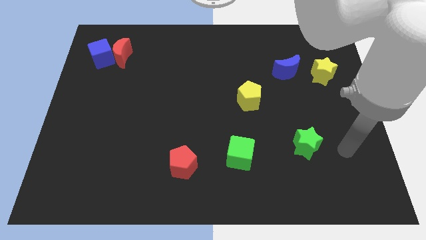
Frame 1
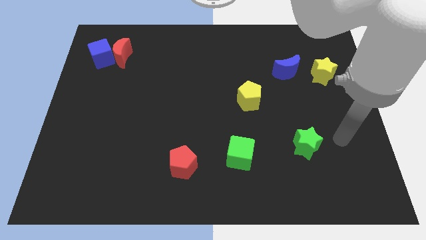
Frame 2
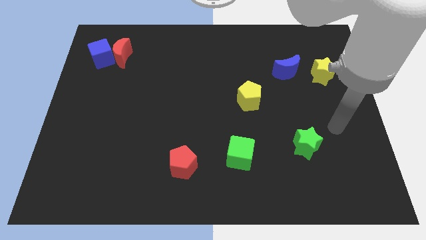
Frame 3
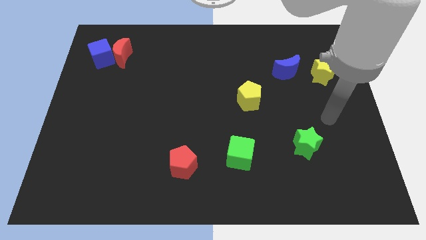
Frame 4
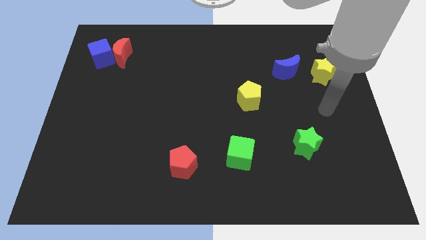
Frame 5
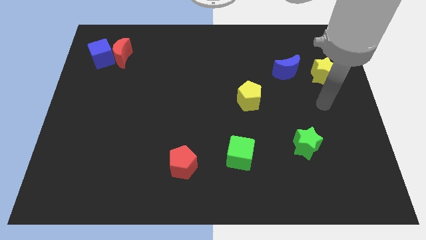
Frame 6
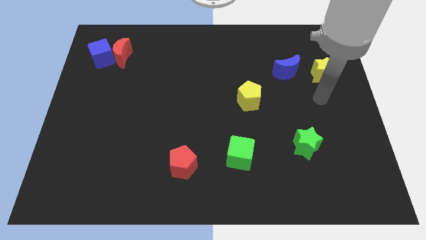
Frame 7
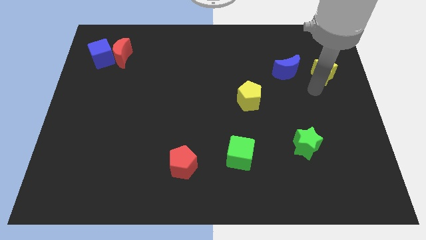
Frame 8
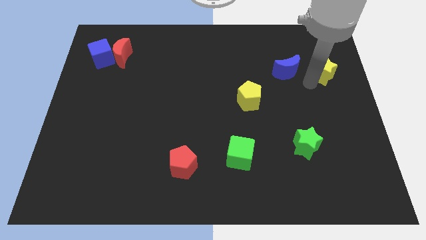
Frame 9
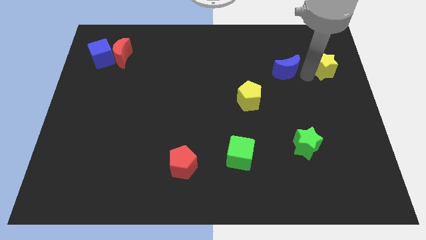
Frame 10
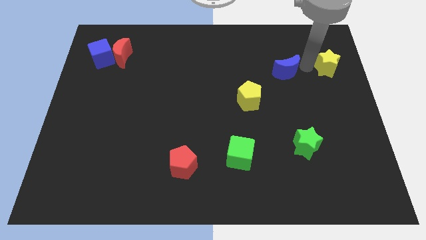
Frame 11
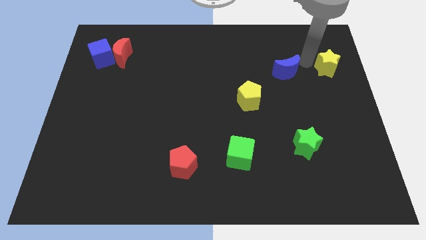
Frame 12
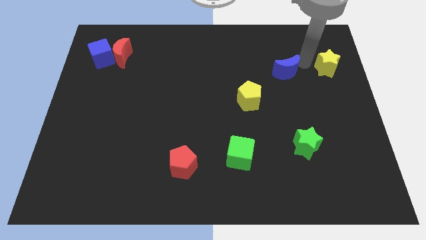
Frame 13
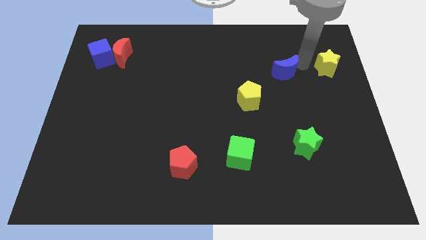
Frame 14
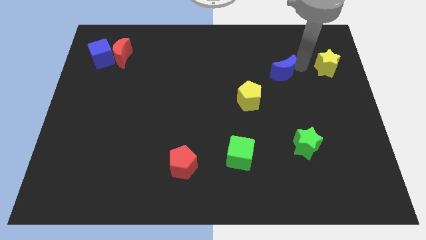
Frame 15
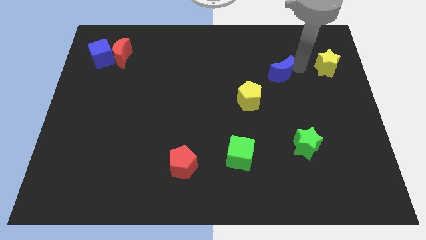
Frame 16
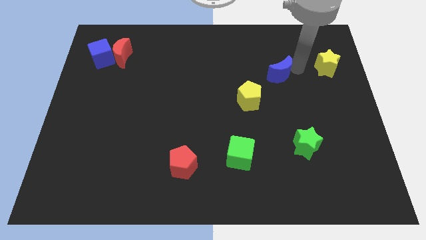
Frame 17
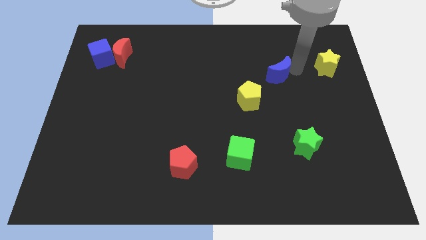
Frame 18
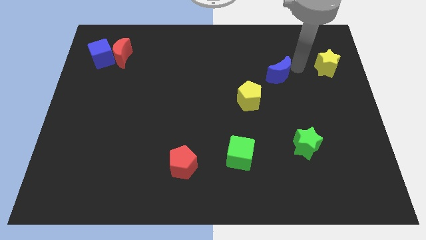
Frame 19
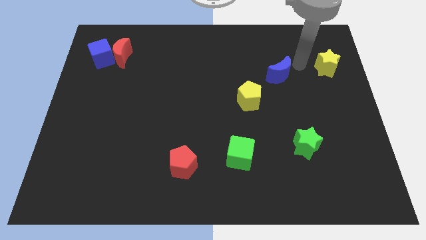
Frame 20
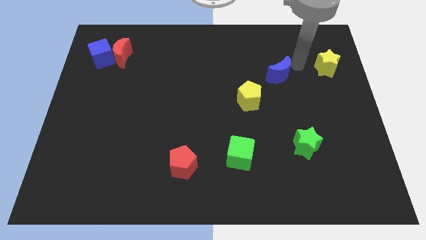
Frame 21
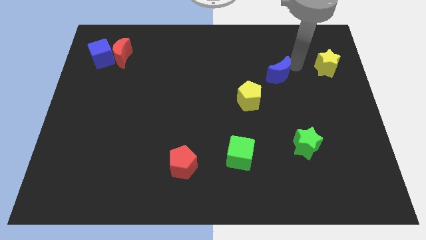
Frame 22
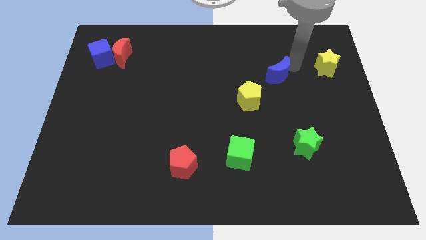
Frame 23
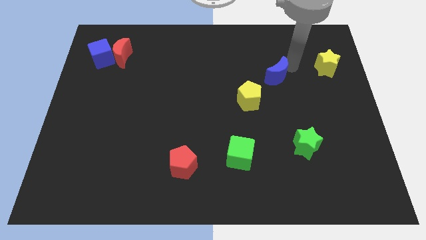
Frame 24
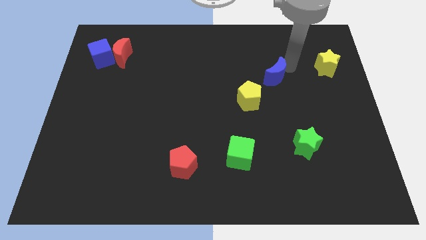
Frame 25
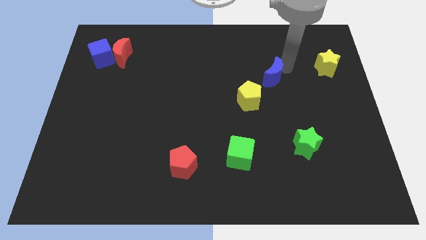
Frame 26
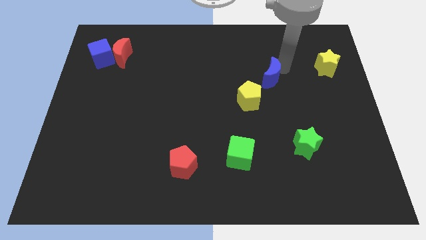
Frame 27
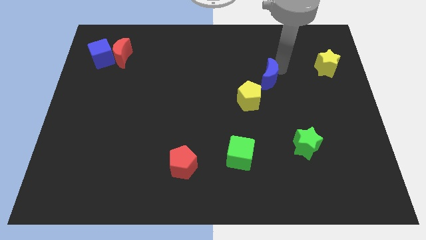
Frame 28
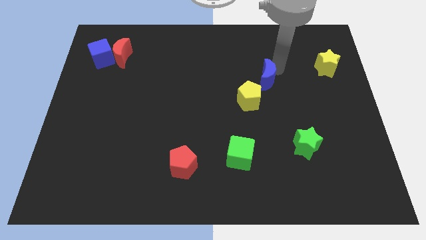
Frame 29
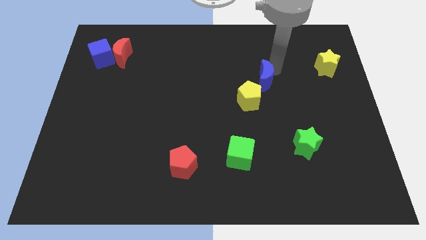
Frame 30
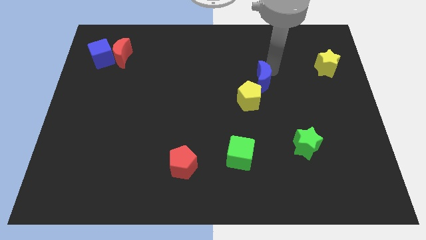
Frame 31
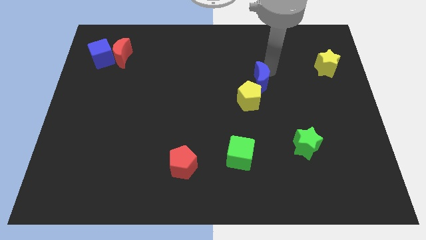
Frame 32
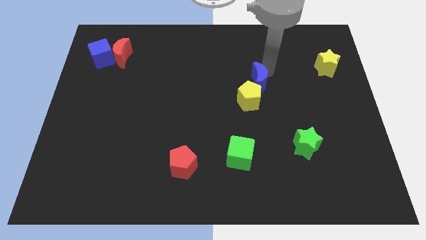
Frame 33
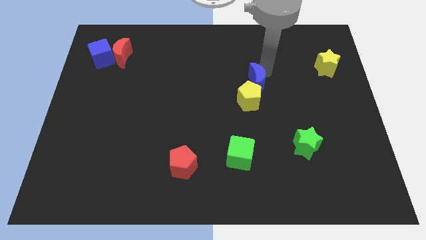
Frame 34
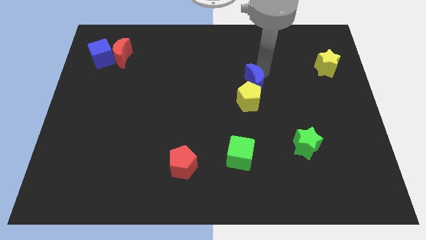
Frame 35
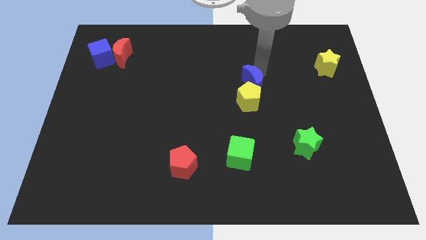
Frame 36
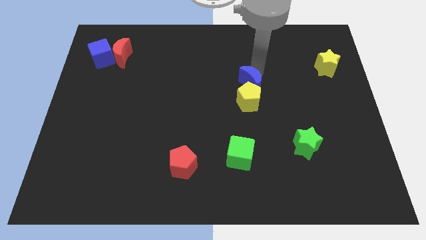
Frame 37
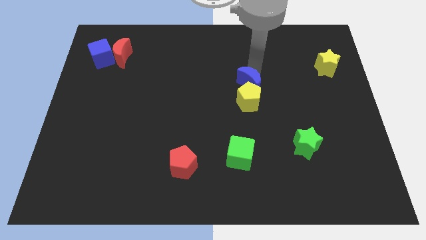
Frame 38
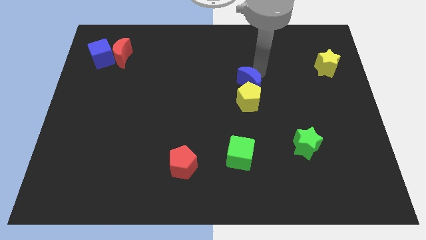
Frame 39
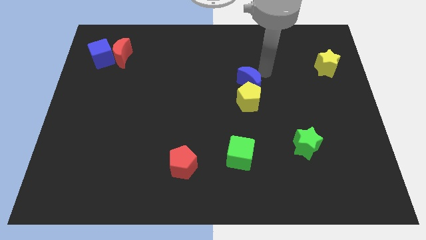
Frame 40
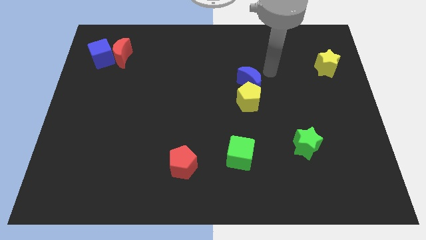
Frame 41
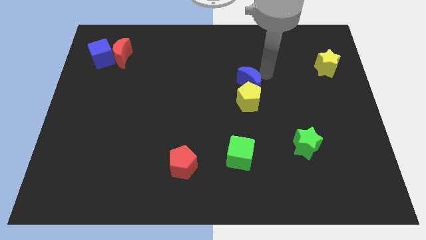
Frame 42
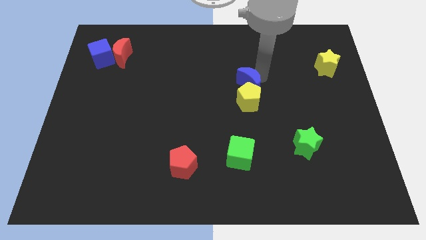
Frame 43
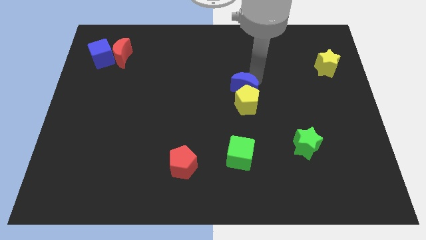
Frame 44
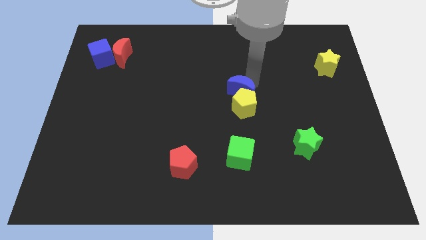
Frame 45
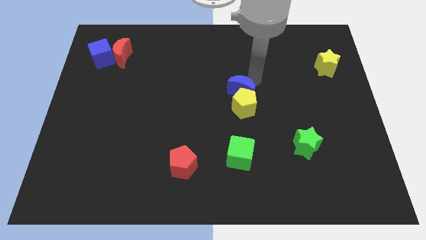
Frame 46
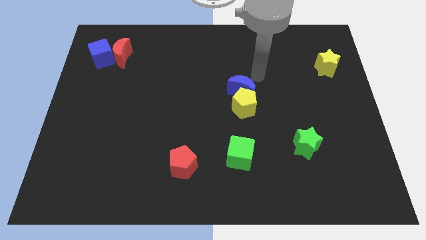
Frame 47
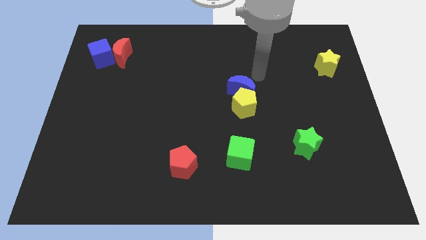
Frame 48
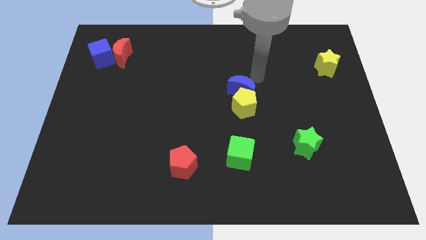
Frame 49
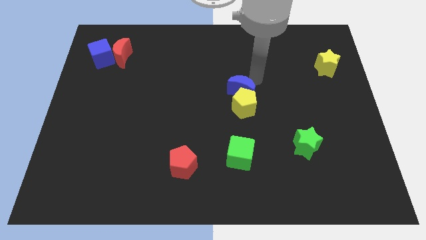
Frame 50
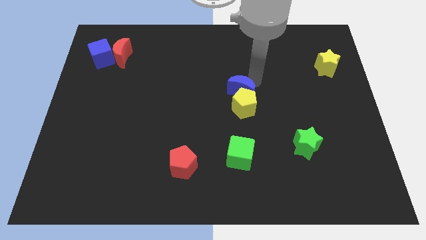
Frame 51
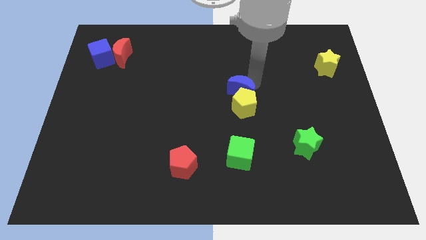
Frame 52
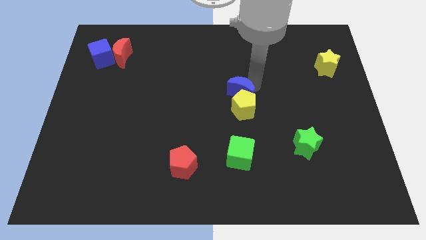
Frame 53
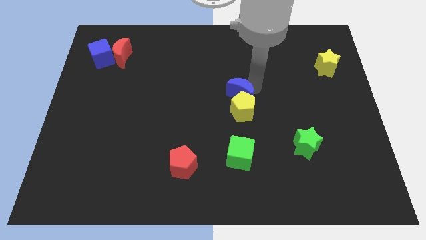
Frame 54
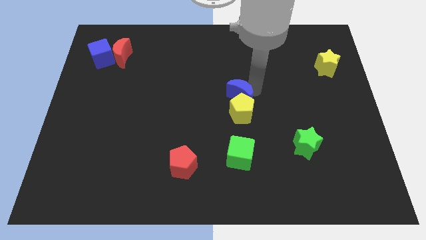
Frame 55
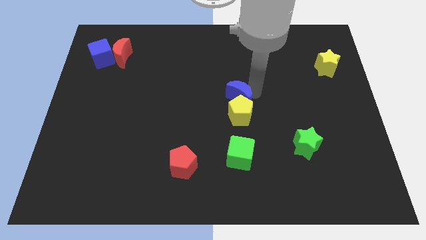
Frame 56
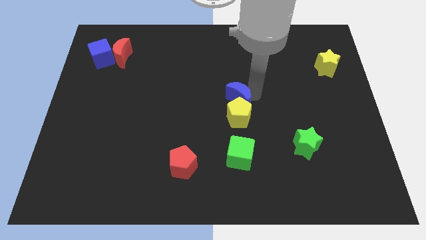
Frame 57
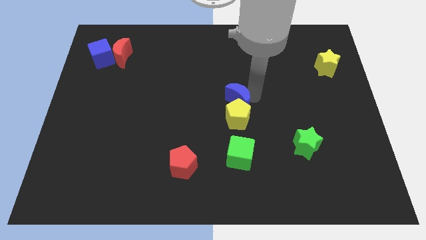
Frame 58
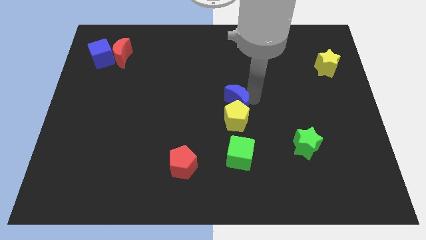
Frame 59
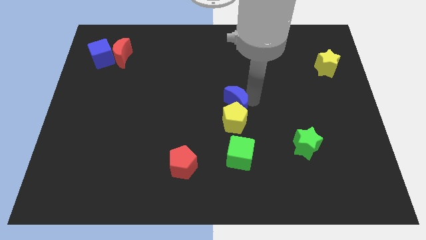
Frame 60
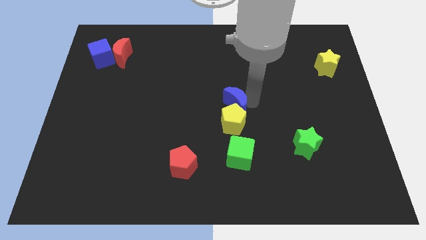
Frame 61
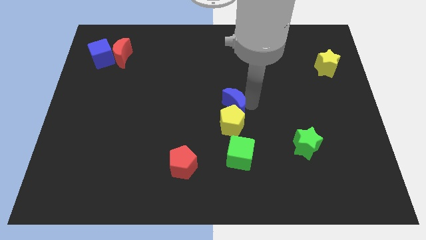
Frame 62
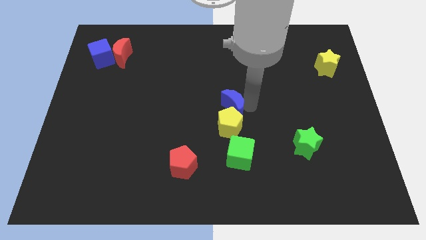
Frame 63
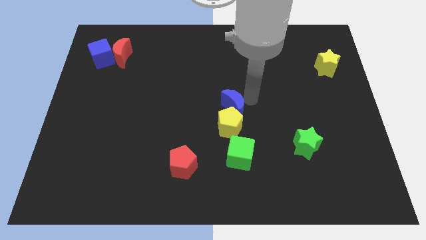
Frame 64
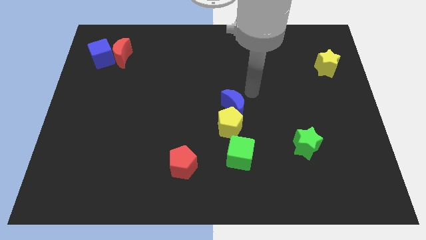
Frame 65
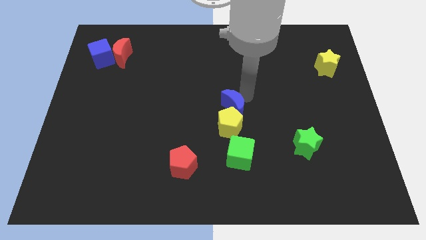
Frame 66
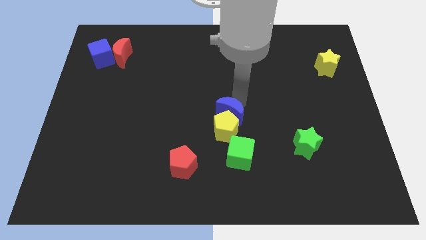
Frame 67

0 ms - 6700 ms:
slide the blue moon downwards and to the left diagonally

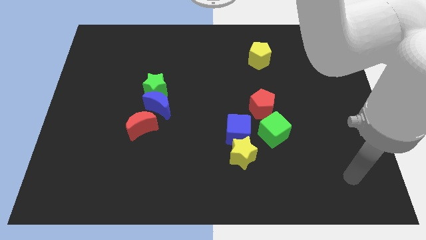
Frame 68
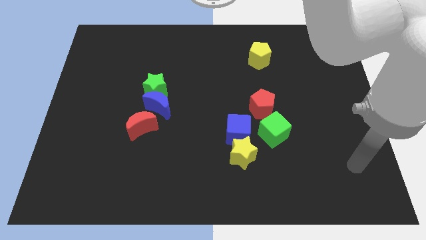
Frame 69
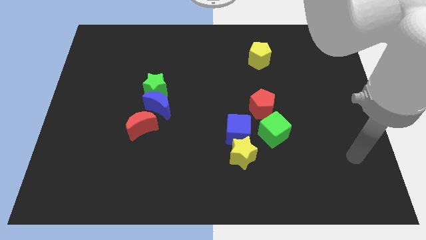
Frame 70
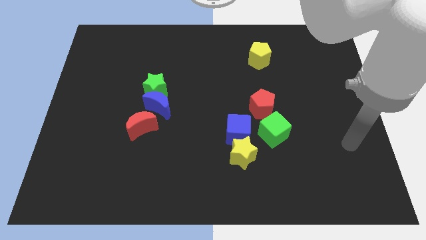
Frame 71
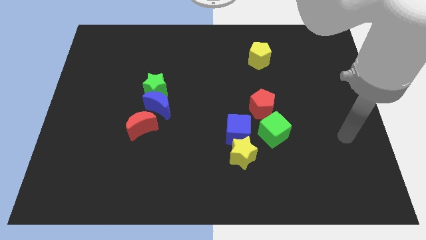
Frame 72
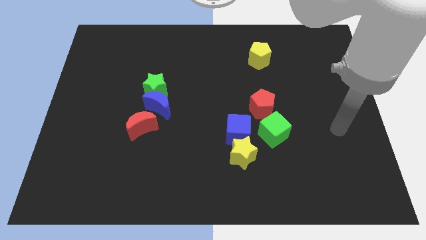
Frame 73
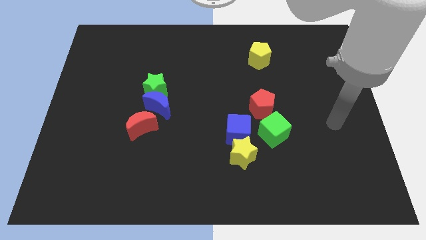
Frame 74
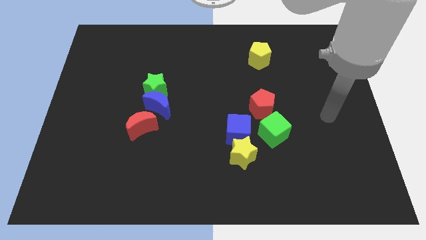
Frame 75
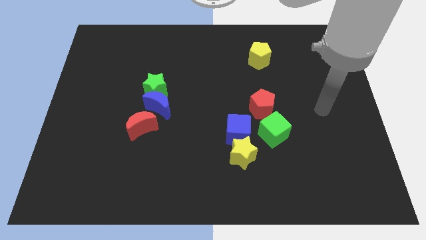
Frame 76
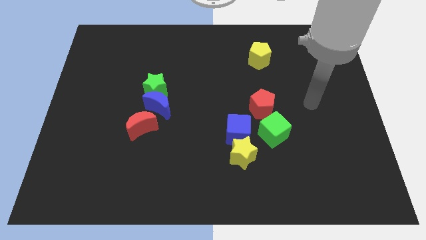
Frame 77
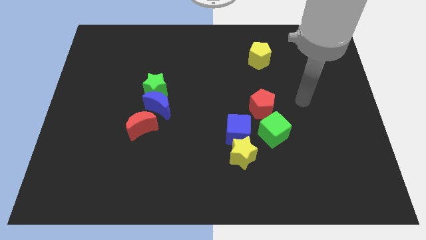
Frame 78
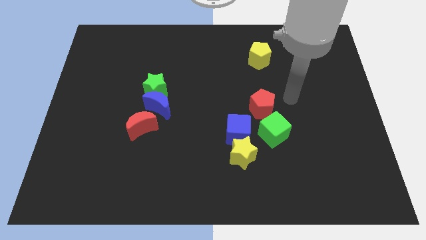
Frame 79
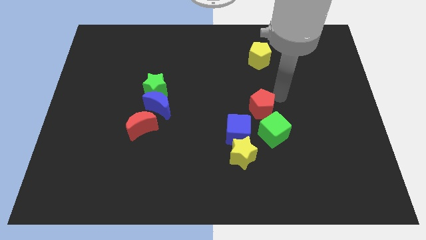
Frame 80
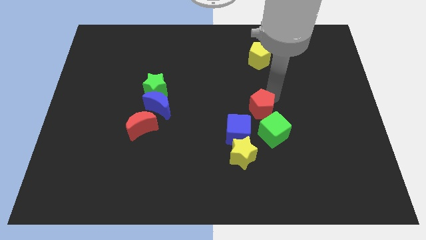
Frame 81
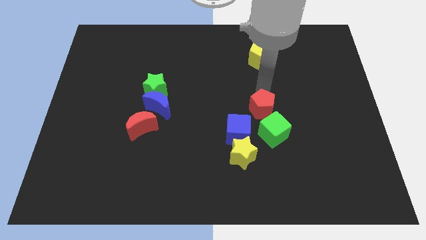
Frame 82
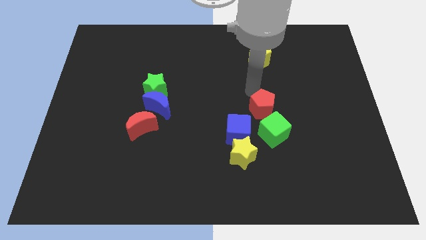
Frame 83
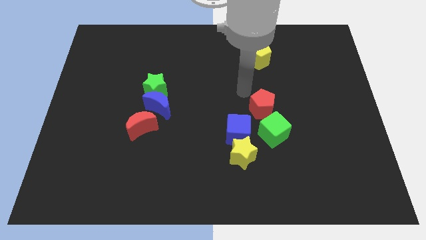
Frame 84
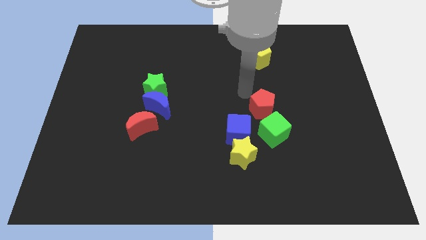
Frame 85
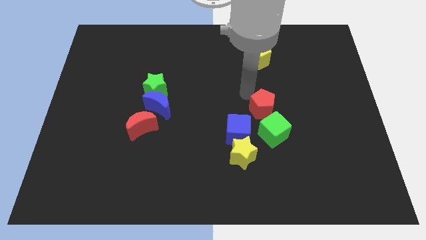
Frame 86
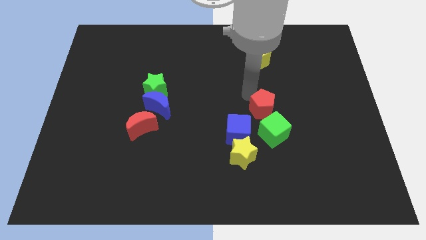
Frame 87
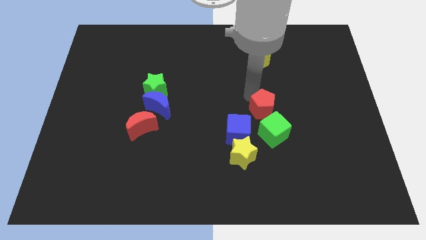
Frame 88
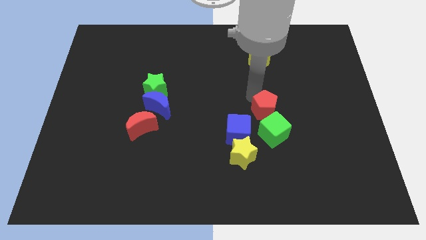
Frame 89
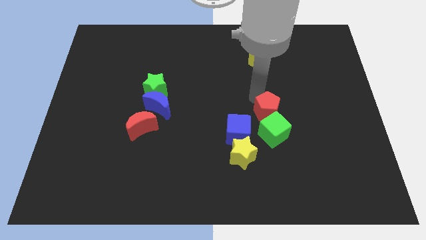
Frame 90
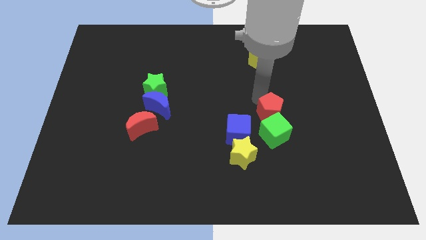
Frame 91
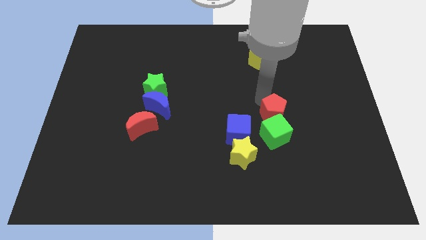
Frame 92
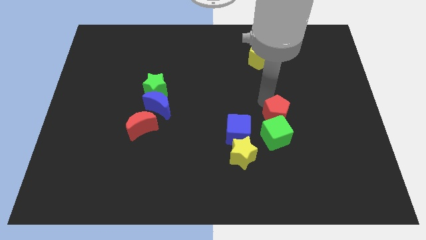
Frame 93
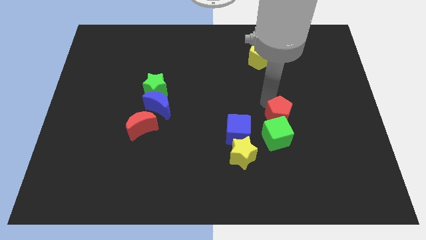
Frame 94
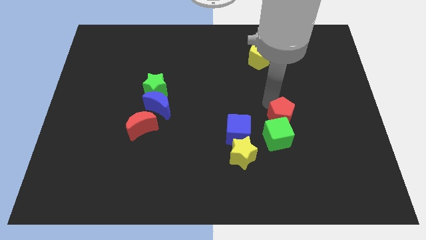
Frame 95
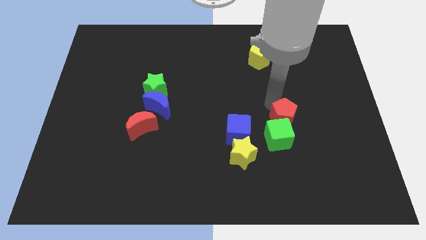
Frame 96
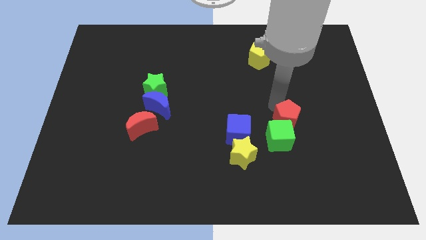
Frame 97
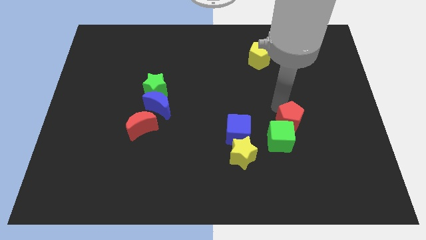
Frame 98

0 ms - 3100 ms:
slightly move the red pentagon downwards and then right
